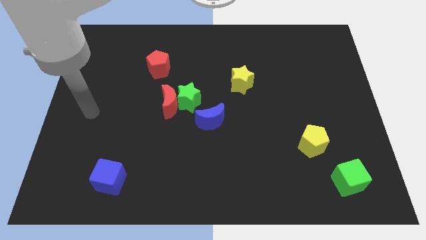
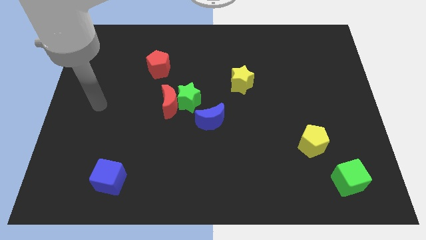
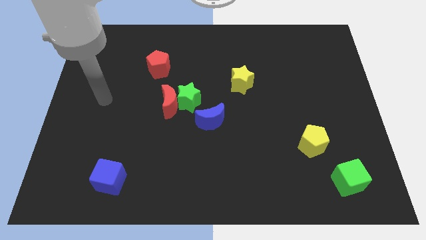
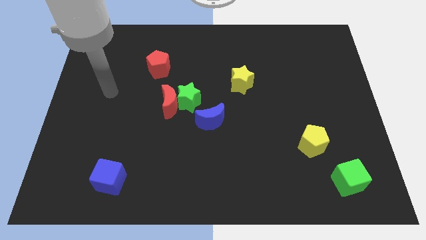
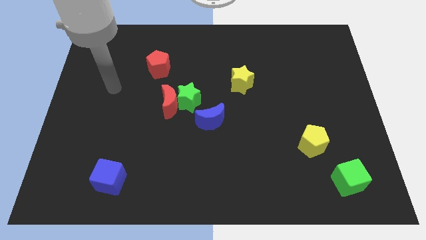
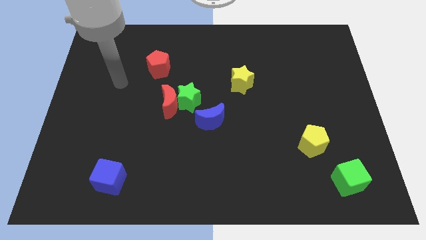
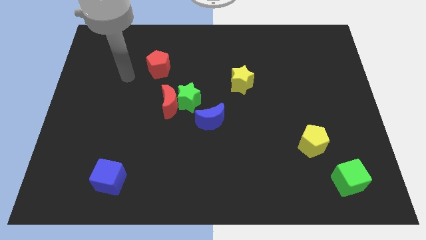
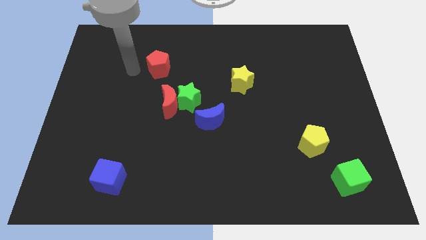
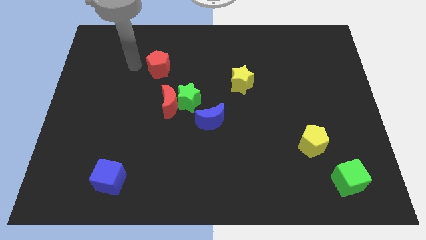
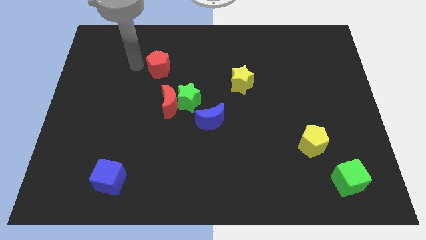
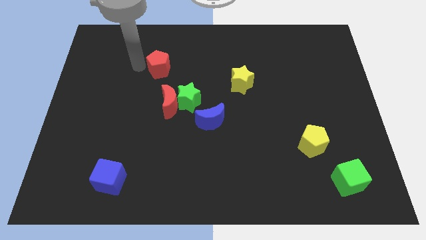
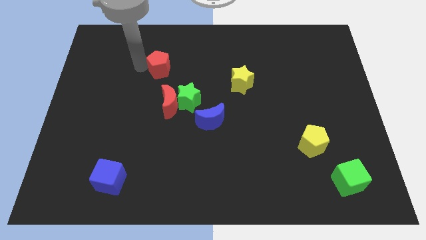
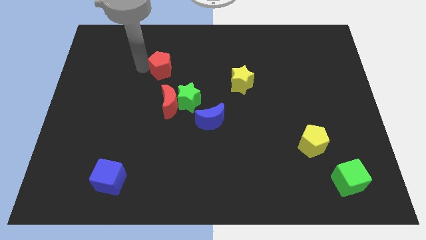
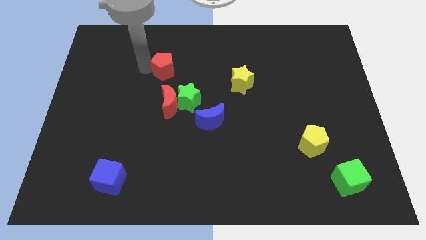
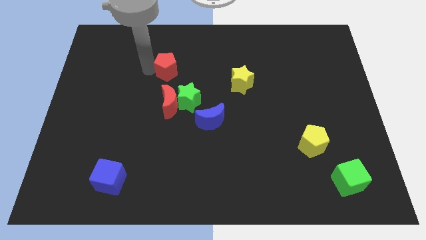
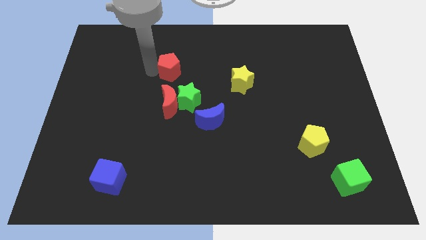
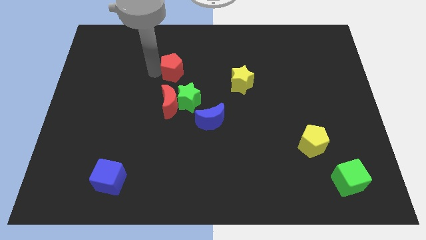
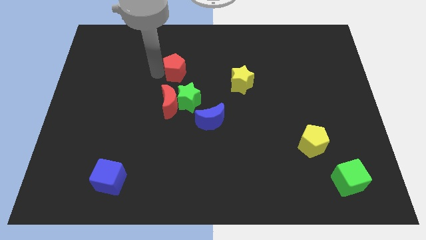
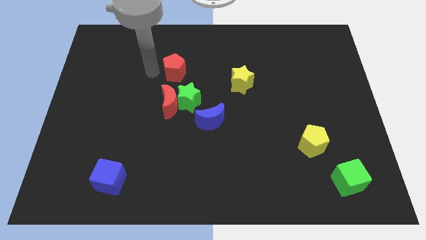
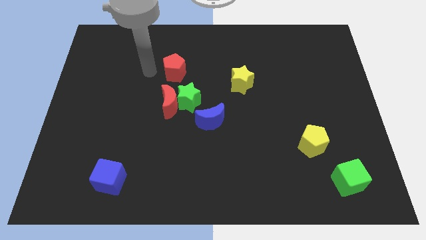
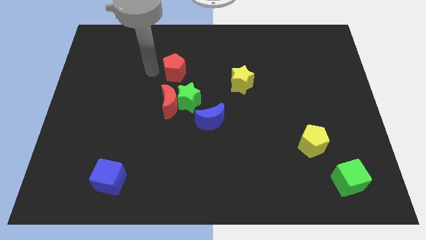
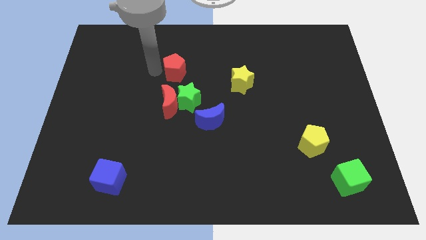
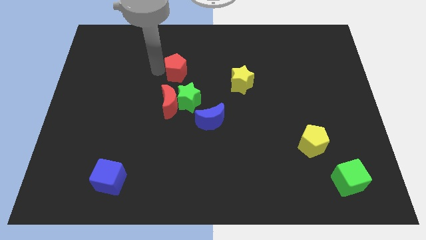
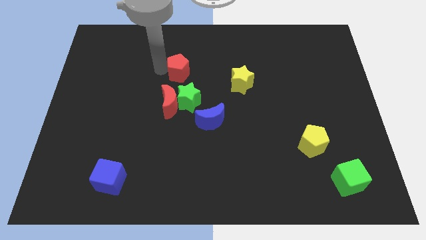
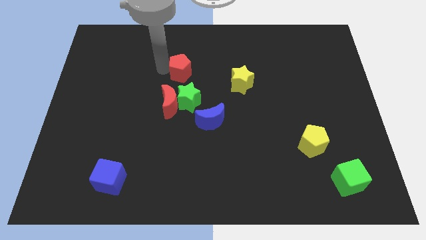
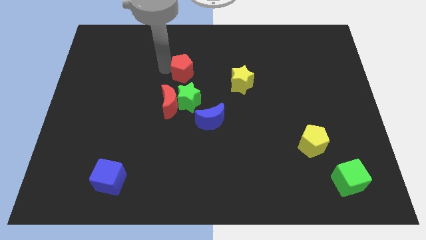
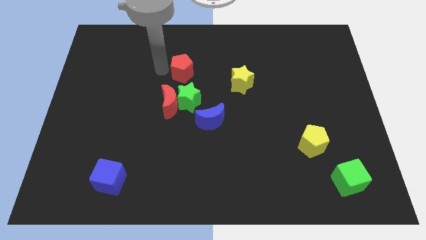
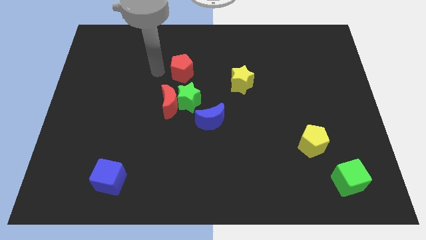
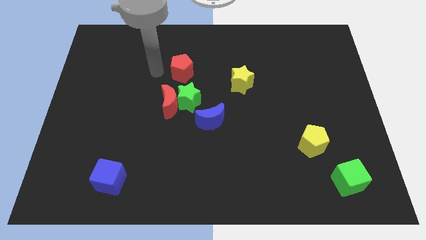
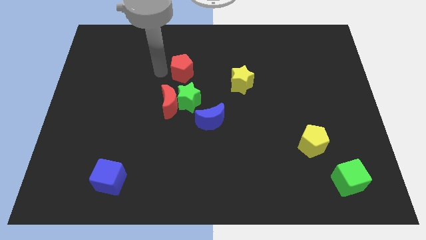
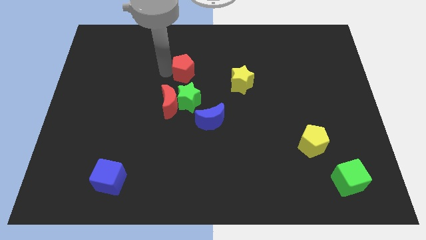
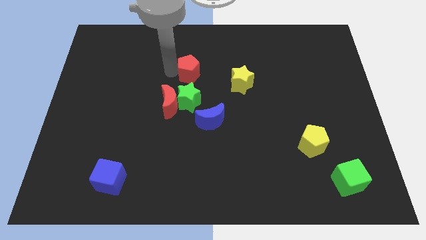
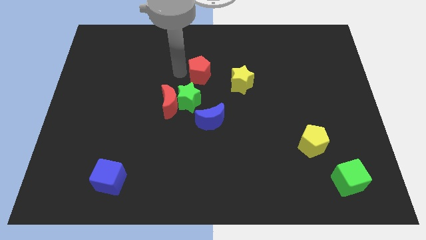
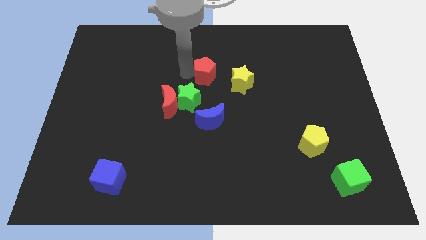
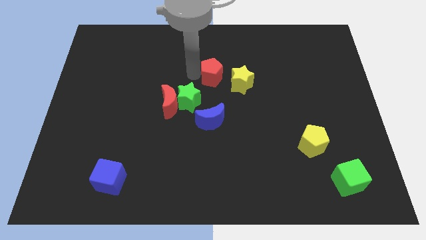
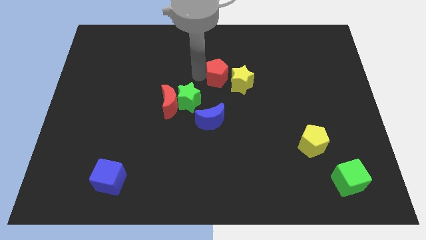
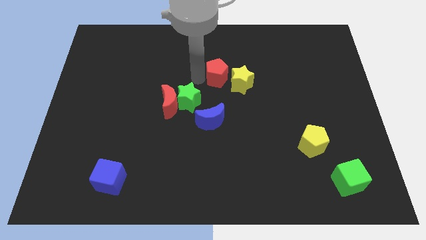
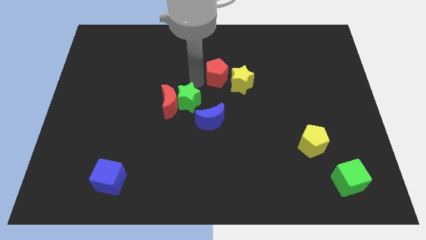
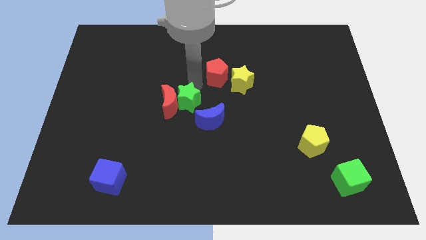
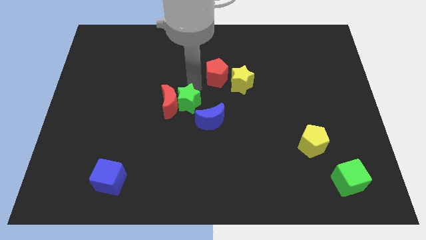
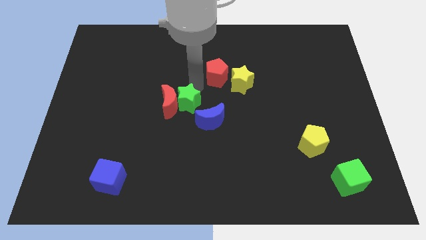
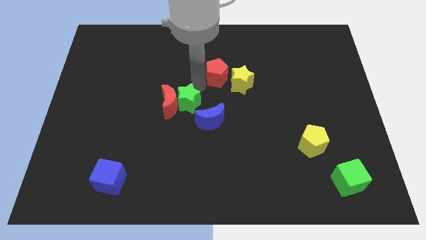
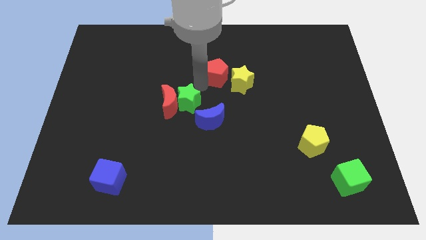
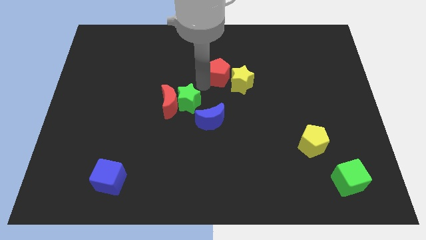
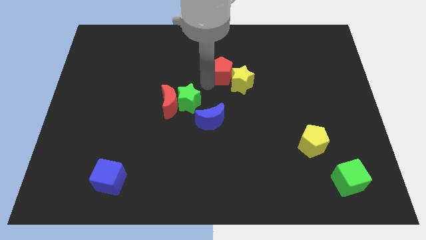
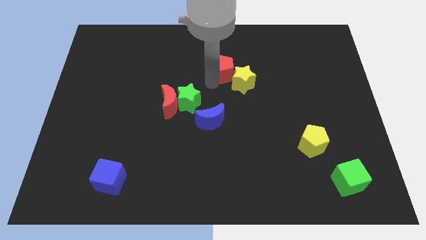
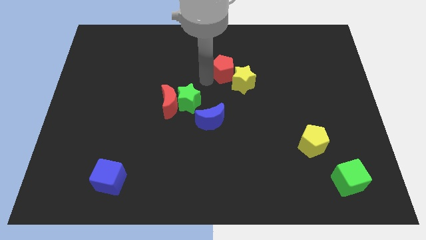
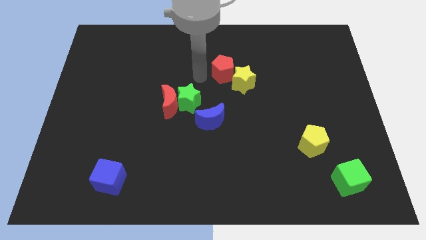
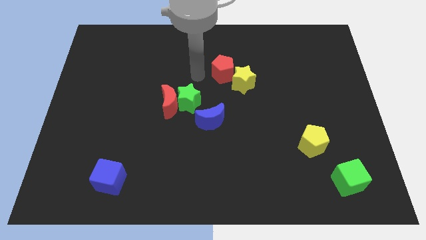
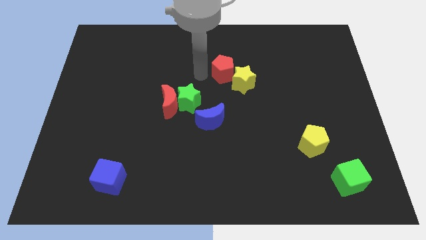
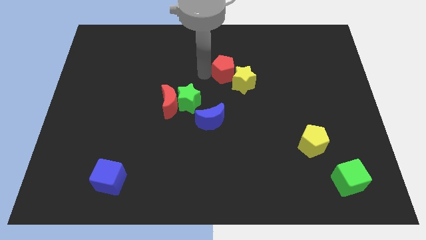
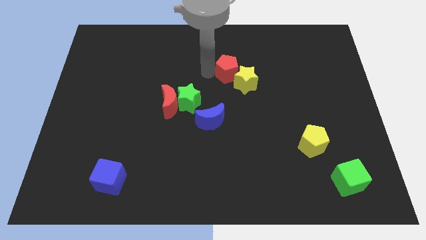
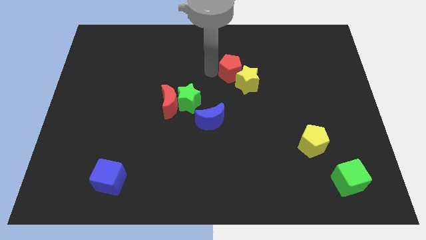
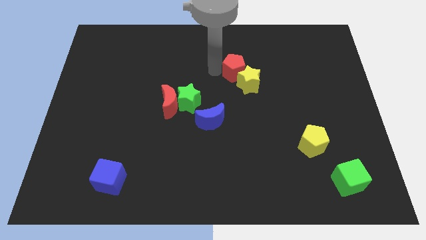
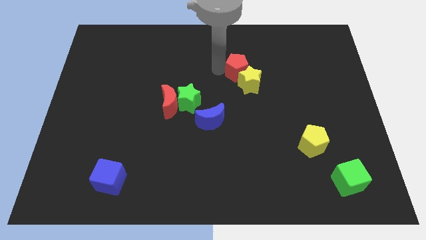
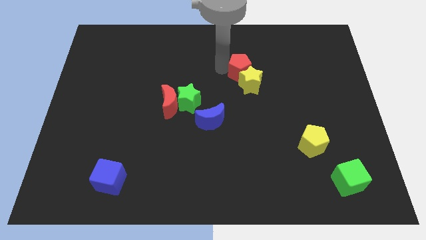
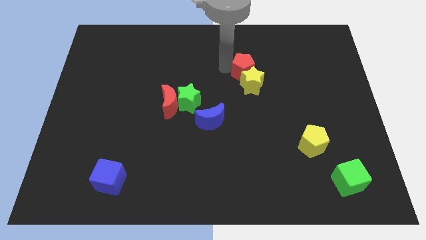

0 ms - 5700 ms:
slide the red pentagon diagonally up and to the right of the yellow star

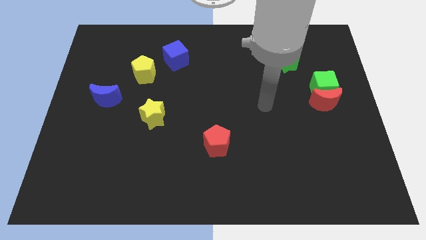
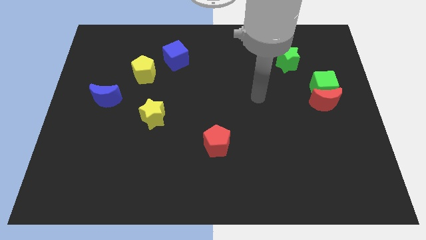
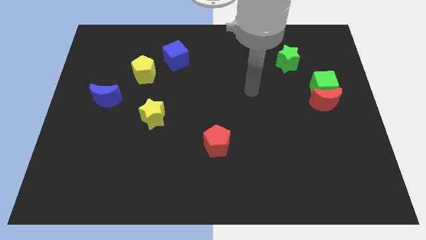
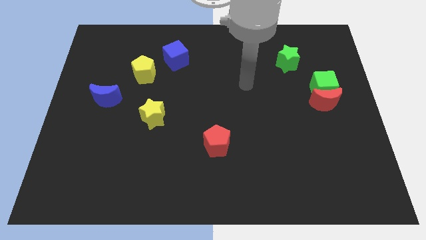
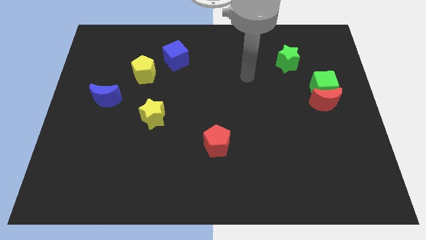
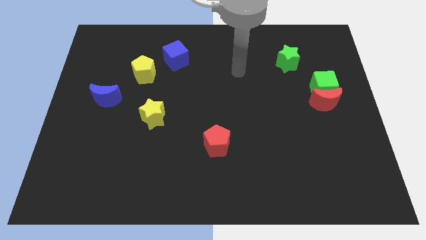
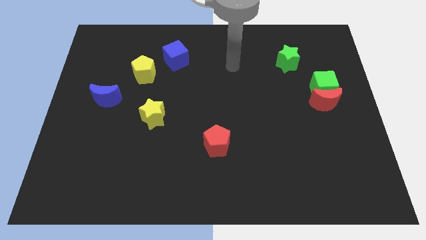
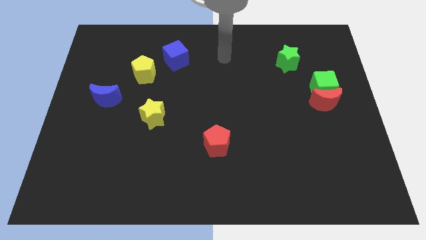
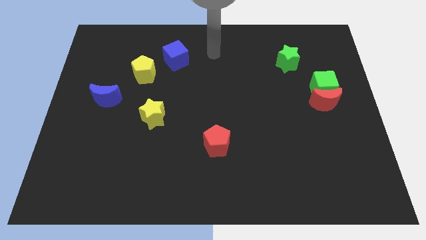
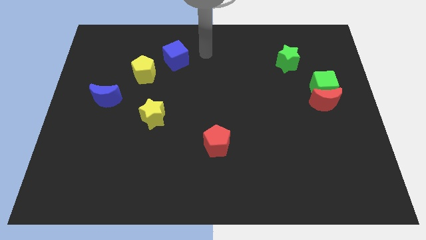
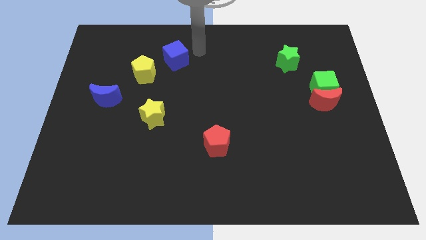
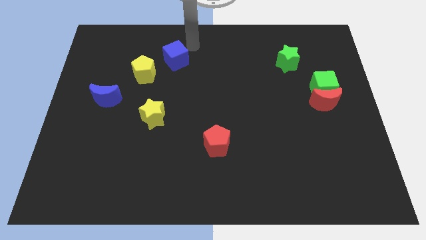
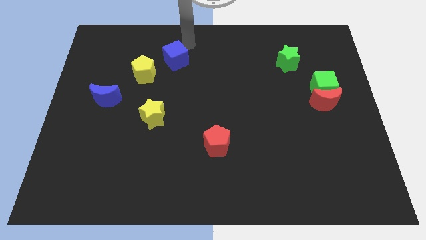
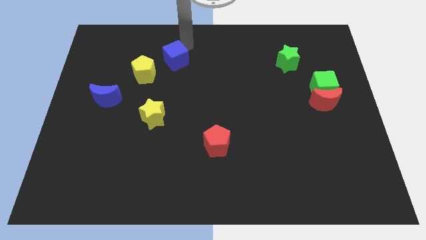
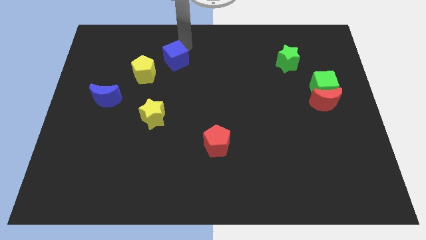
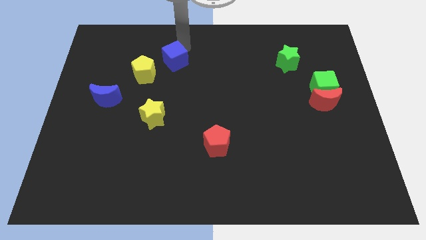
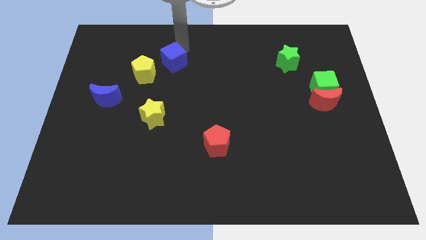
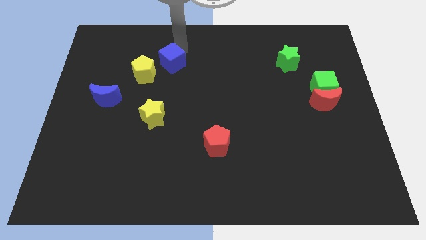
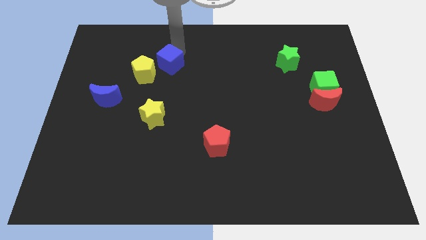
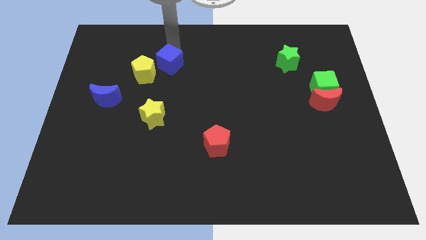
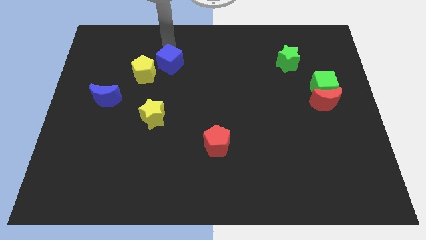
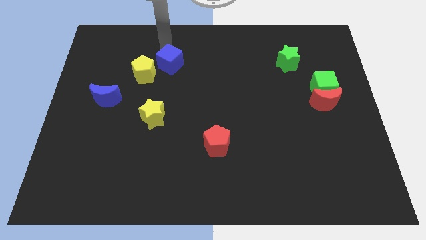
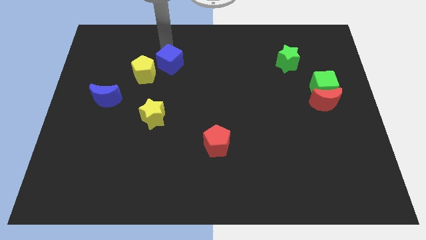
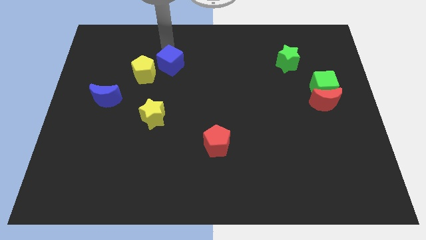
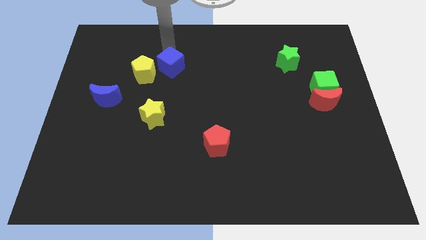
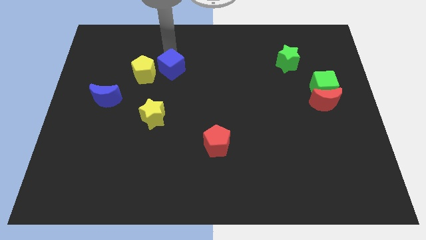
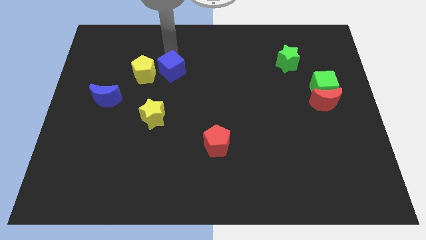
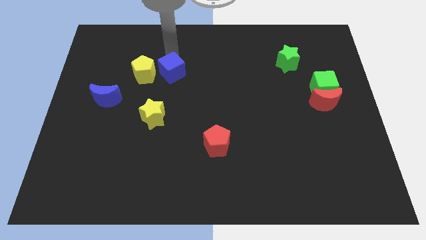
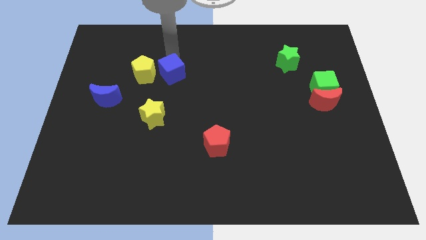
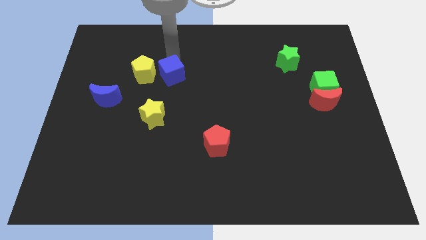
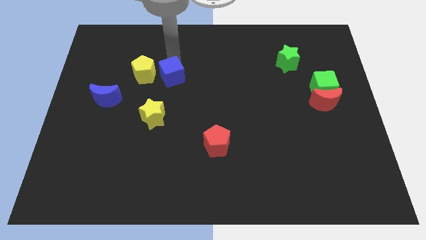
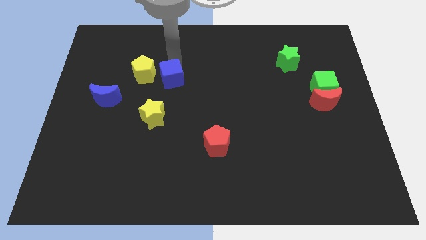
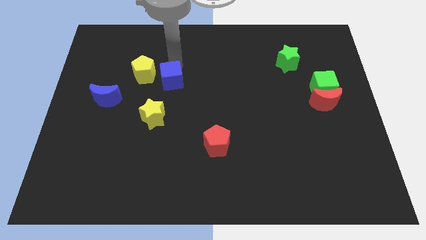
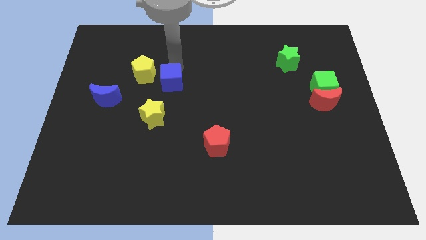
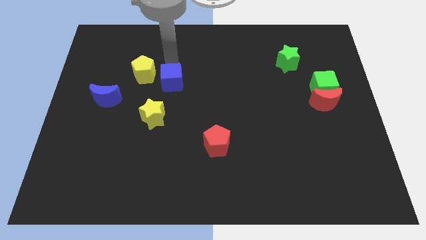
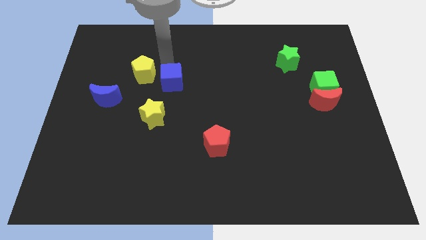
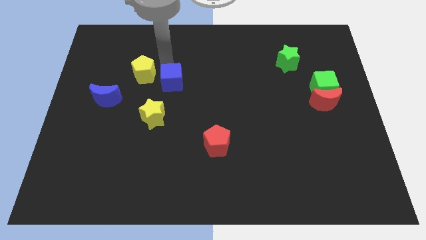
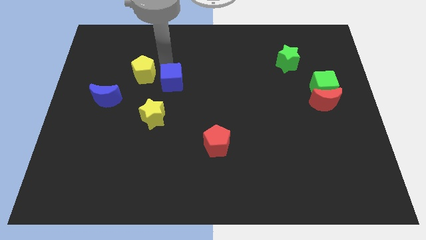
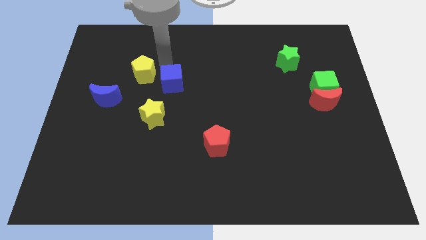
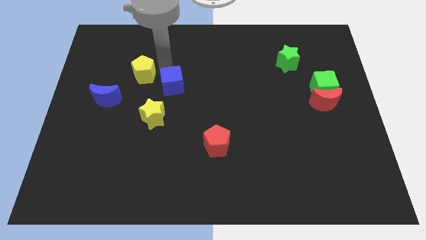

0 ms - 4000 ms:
move the blue cube to the top right of the yellow star
